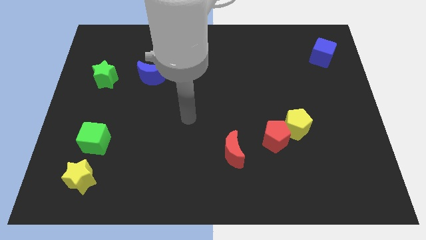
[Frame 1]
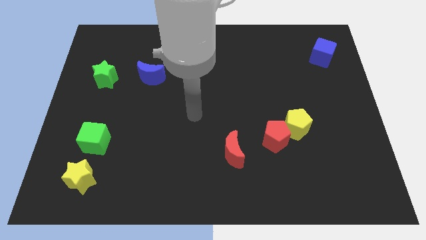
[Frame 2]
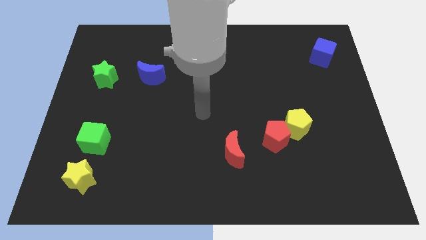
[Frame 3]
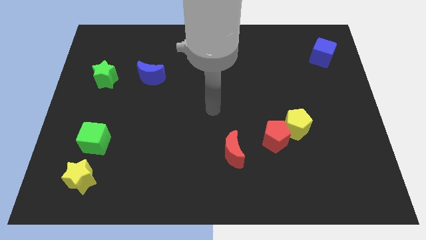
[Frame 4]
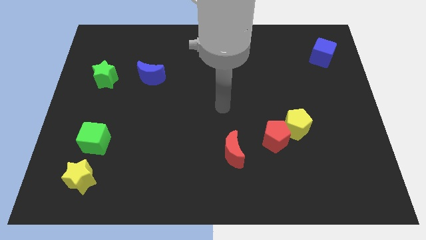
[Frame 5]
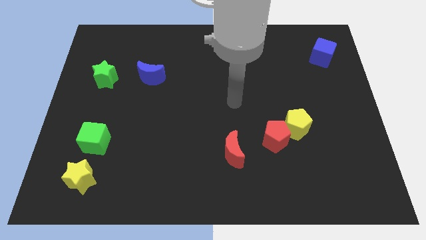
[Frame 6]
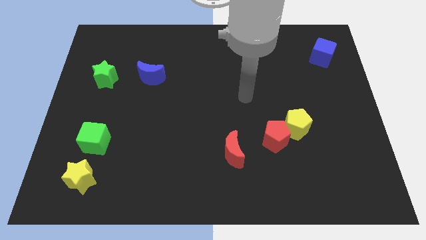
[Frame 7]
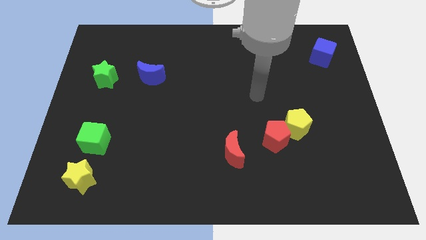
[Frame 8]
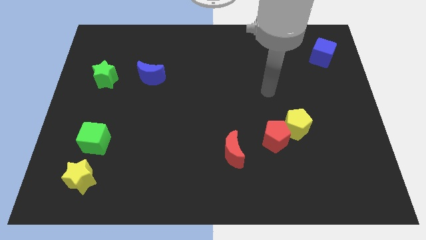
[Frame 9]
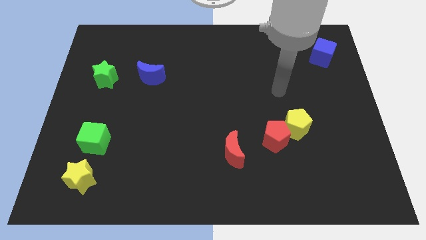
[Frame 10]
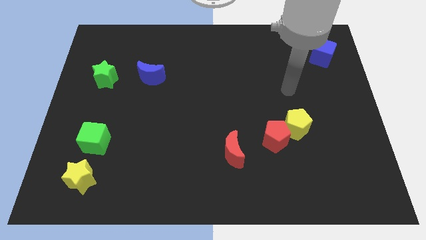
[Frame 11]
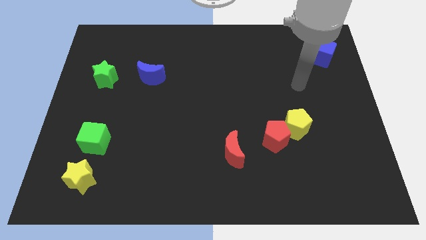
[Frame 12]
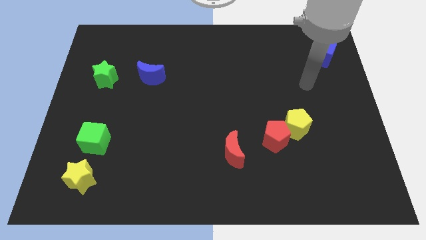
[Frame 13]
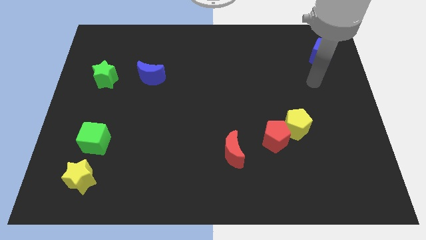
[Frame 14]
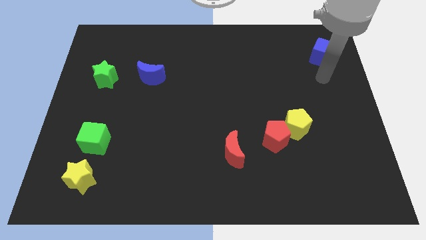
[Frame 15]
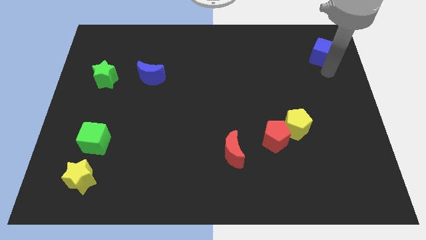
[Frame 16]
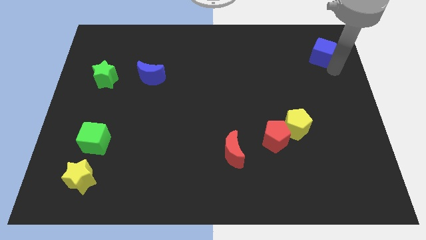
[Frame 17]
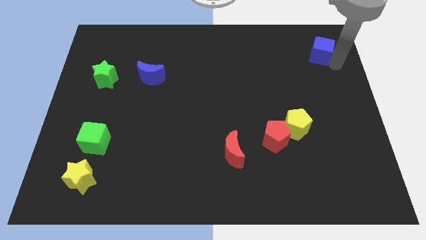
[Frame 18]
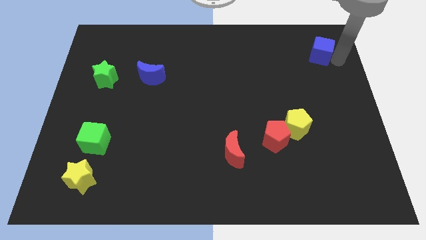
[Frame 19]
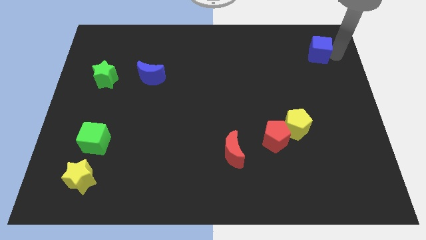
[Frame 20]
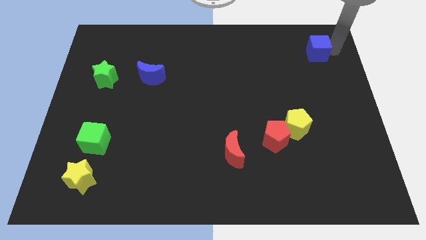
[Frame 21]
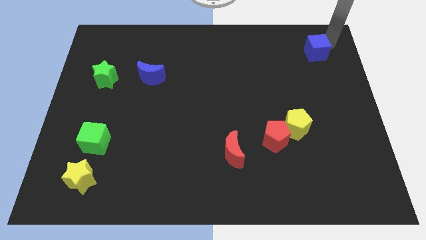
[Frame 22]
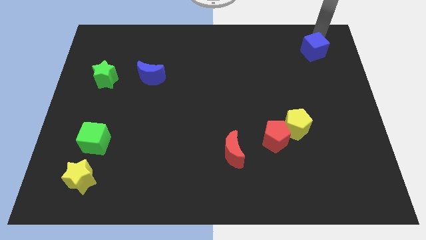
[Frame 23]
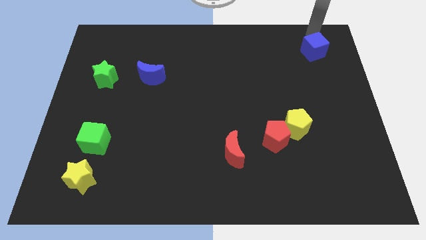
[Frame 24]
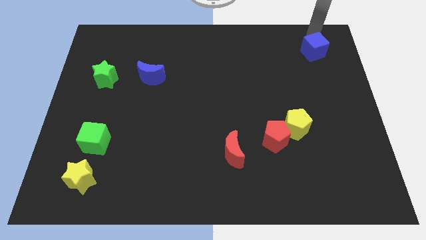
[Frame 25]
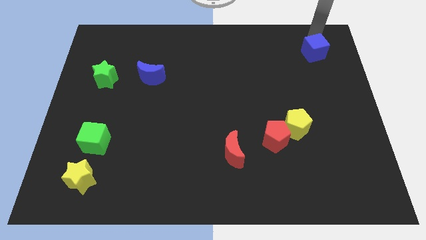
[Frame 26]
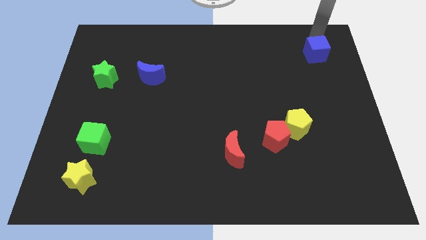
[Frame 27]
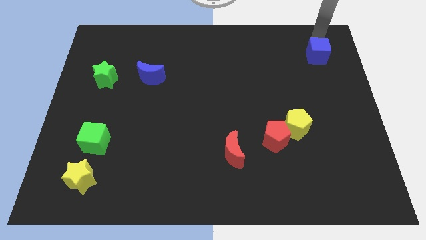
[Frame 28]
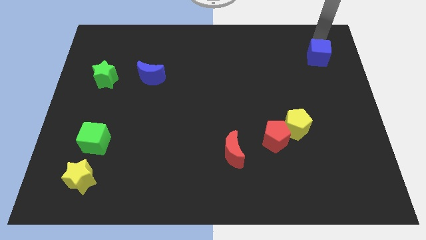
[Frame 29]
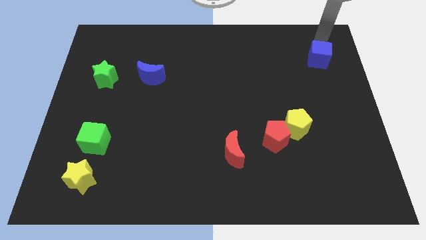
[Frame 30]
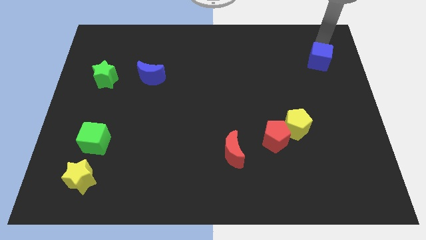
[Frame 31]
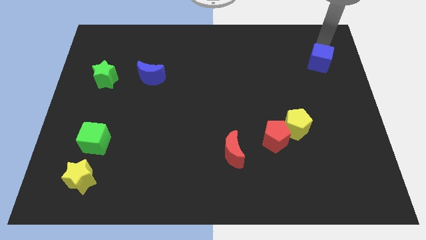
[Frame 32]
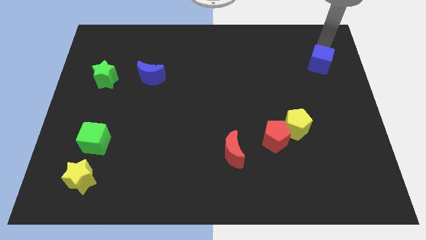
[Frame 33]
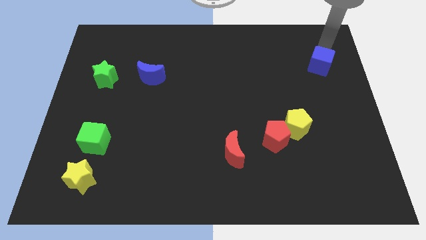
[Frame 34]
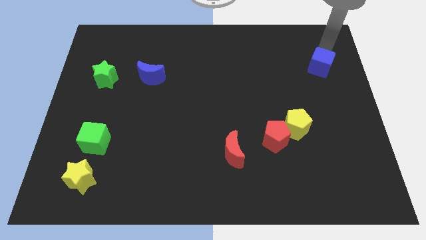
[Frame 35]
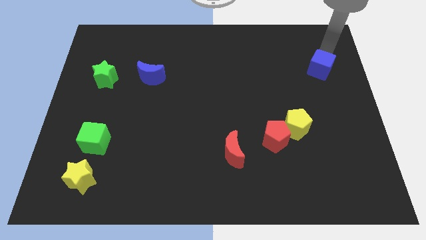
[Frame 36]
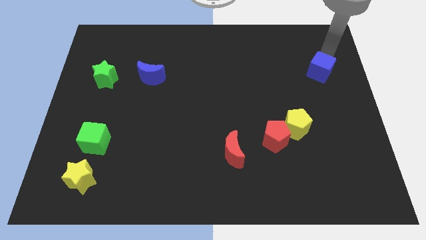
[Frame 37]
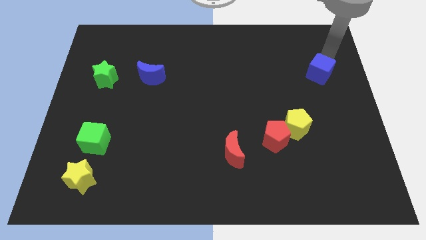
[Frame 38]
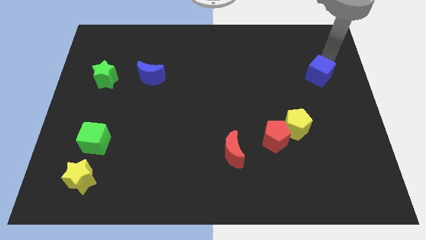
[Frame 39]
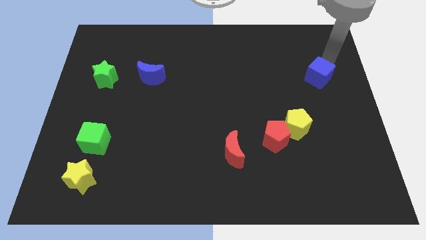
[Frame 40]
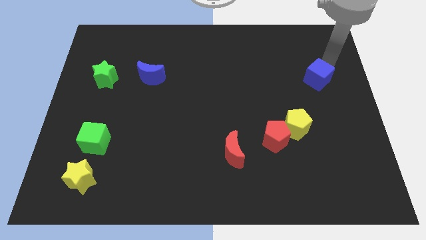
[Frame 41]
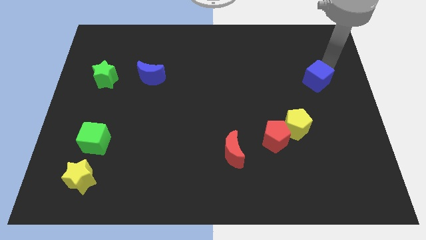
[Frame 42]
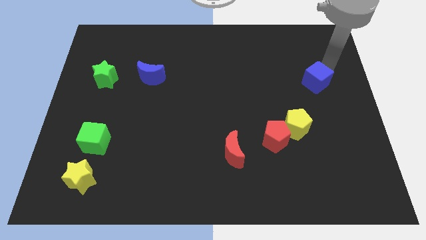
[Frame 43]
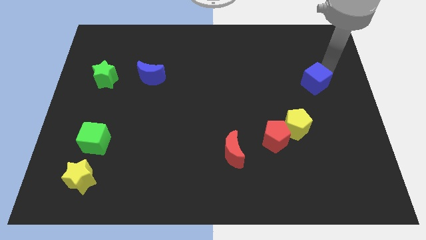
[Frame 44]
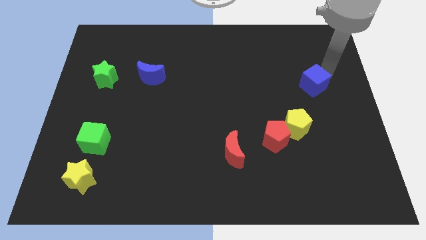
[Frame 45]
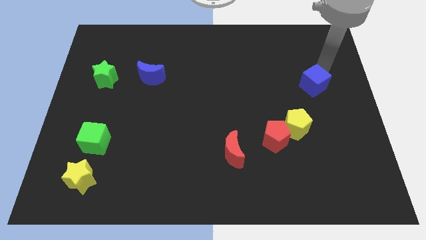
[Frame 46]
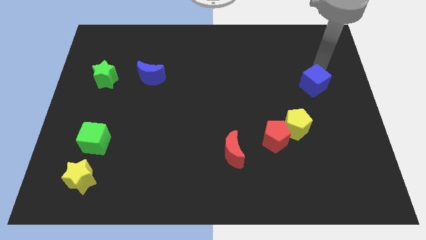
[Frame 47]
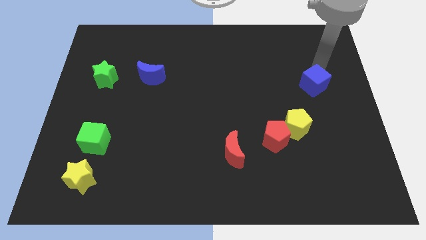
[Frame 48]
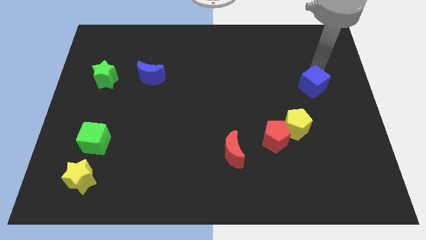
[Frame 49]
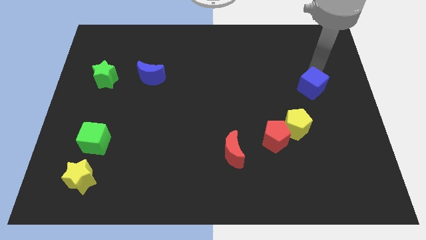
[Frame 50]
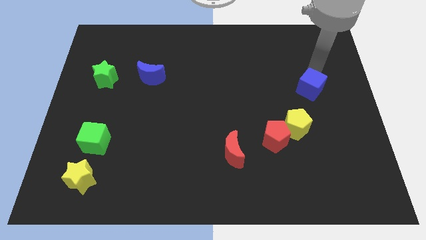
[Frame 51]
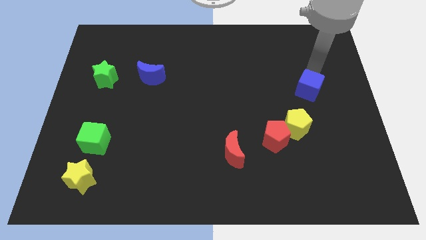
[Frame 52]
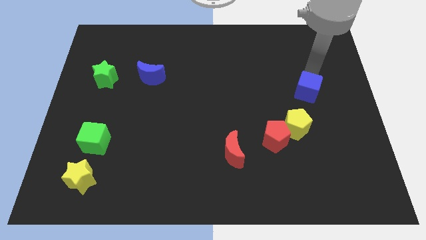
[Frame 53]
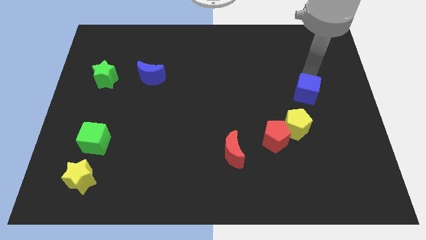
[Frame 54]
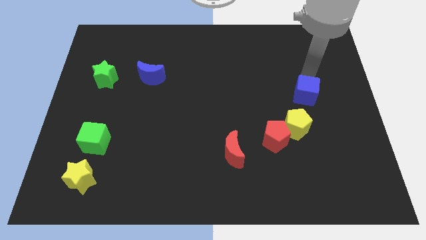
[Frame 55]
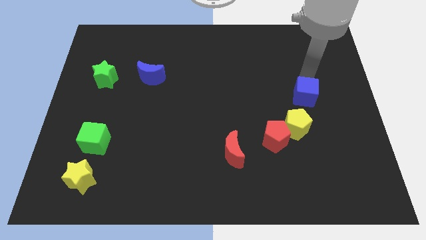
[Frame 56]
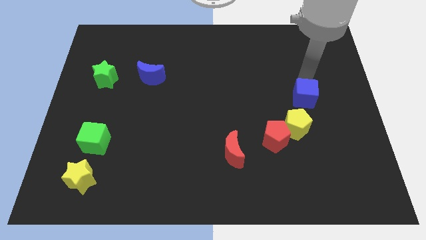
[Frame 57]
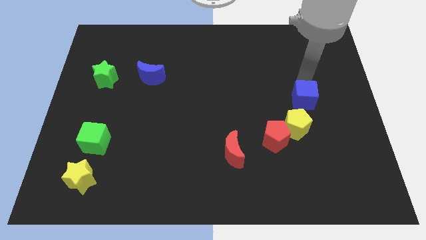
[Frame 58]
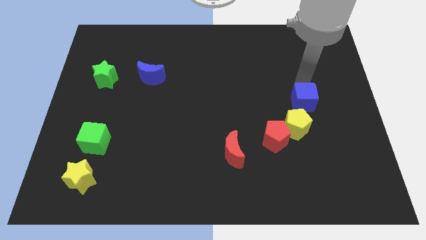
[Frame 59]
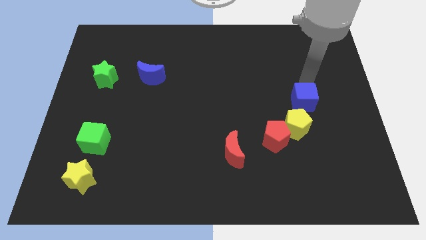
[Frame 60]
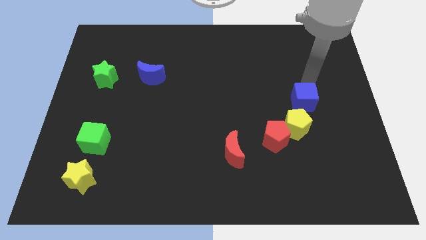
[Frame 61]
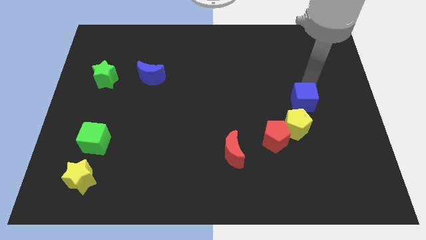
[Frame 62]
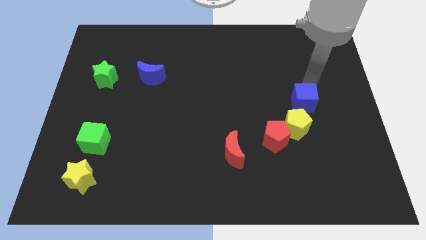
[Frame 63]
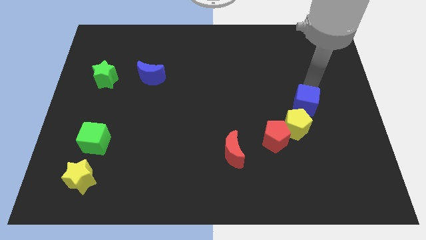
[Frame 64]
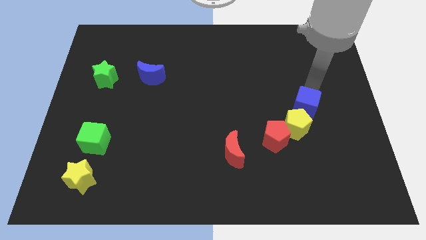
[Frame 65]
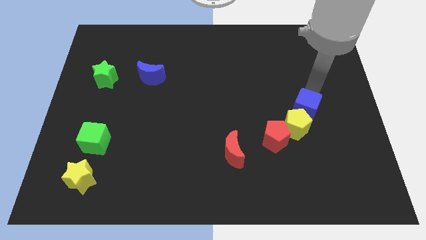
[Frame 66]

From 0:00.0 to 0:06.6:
move the blue cube to the yellow pentagon

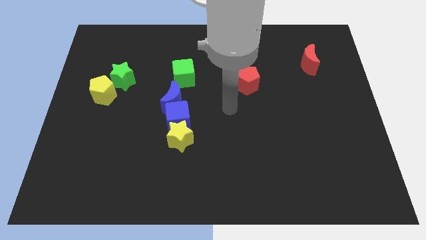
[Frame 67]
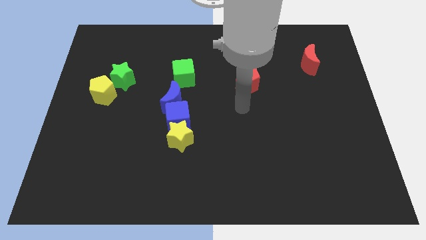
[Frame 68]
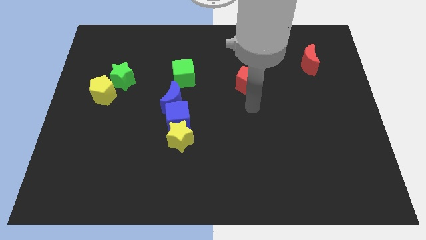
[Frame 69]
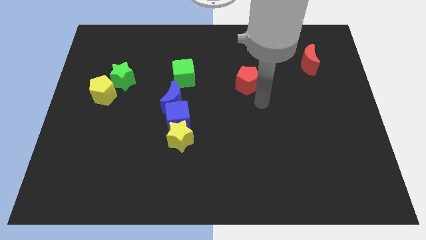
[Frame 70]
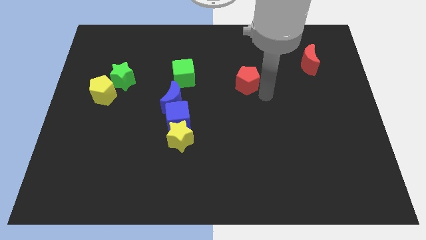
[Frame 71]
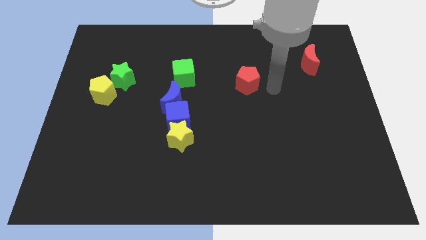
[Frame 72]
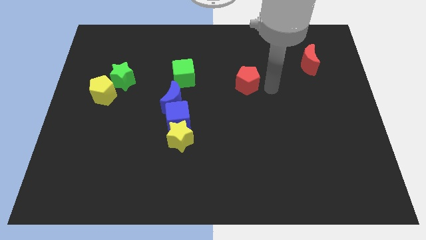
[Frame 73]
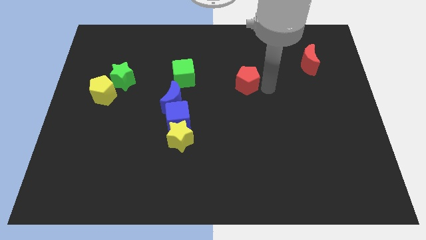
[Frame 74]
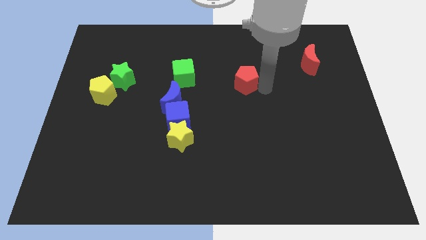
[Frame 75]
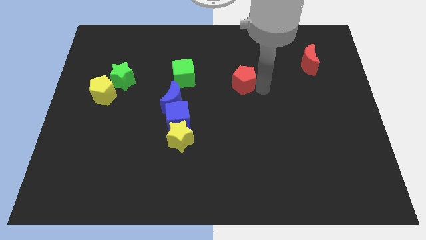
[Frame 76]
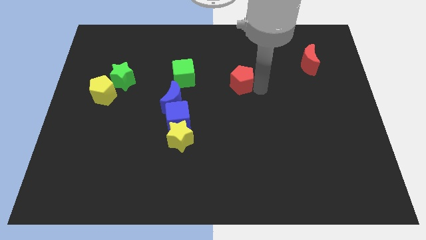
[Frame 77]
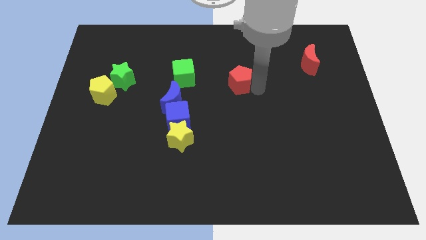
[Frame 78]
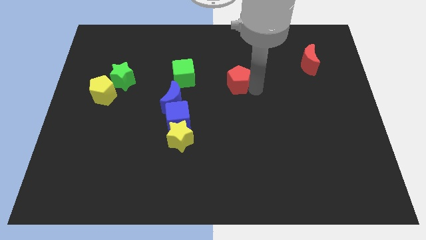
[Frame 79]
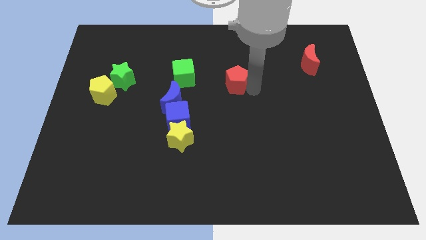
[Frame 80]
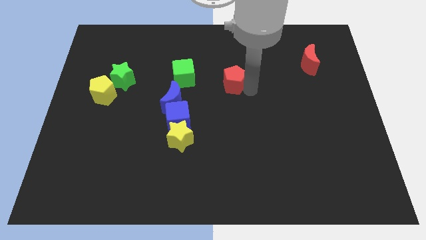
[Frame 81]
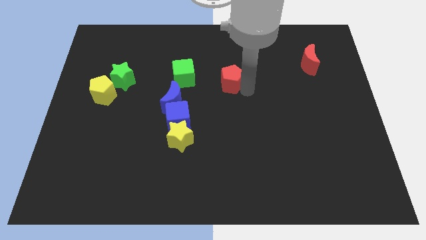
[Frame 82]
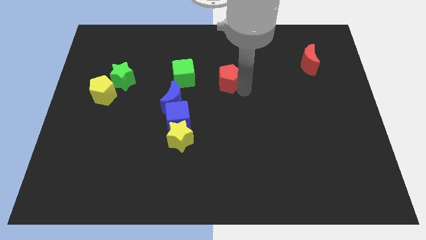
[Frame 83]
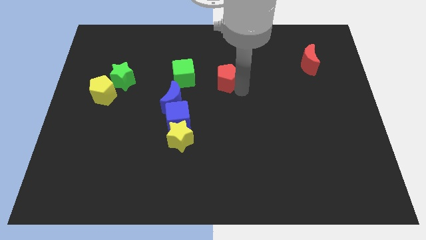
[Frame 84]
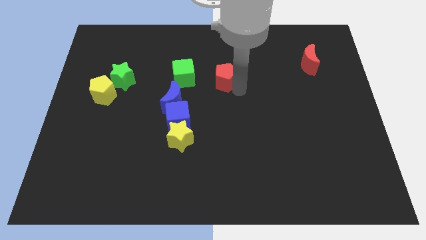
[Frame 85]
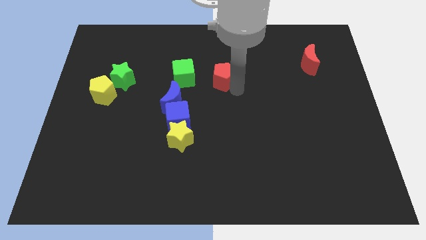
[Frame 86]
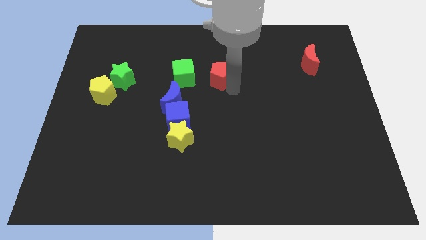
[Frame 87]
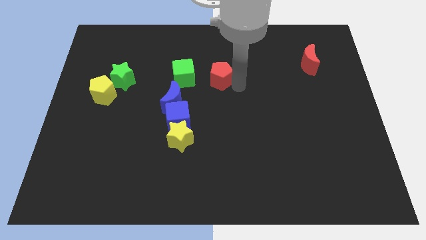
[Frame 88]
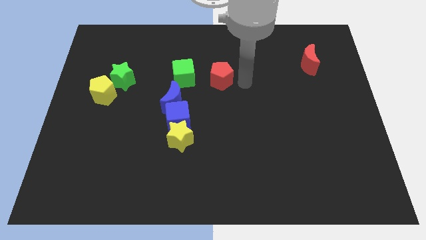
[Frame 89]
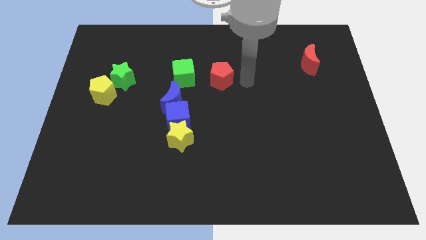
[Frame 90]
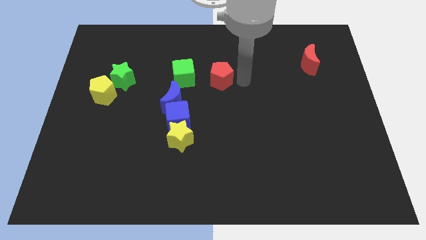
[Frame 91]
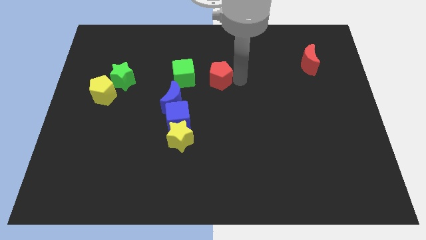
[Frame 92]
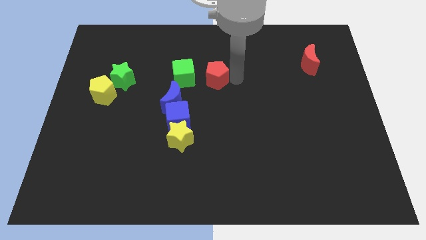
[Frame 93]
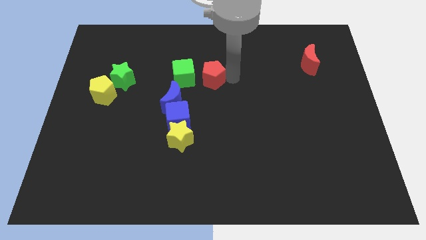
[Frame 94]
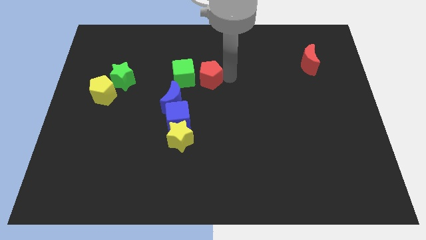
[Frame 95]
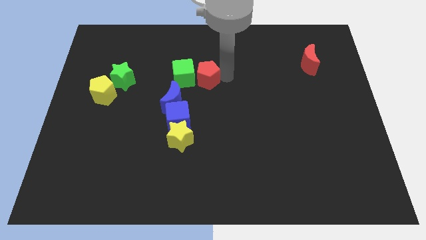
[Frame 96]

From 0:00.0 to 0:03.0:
push the red pentagon towards the green cube
